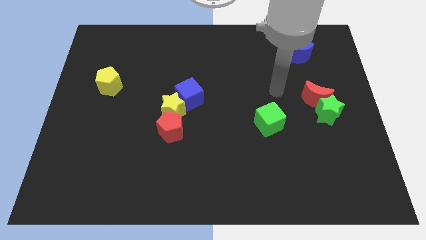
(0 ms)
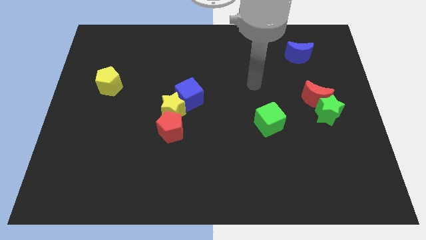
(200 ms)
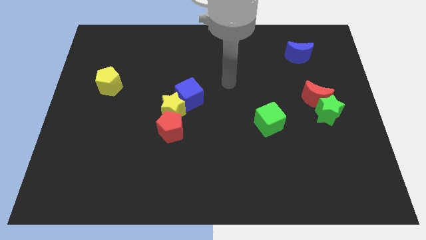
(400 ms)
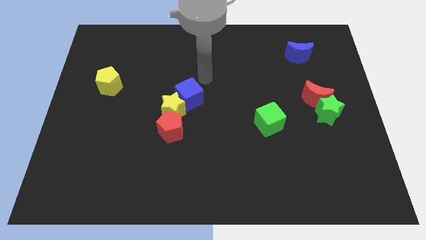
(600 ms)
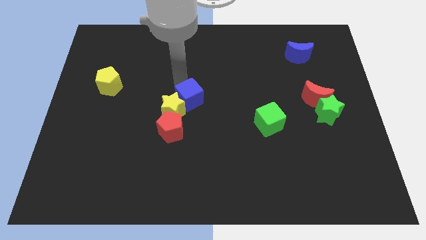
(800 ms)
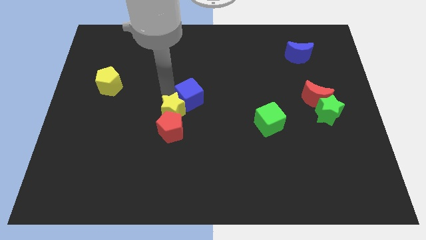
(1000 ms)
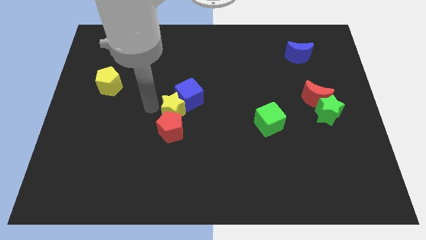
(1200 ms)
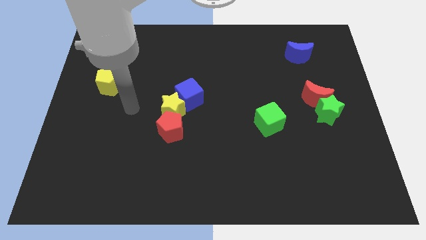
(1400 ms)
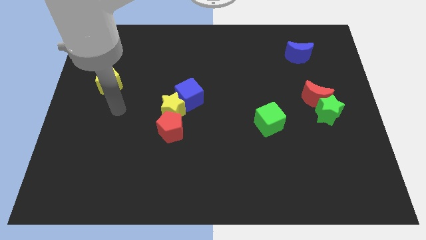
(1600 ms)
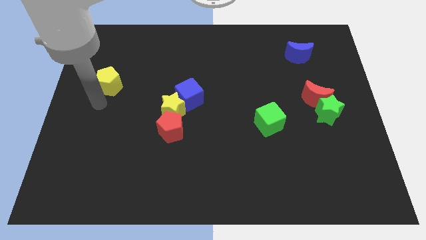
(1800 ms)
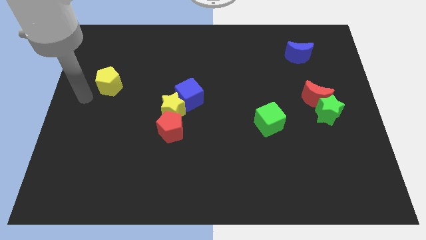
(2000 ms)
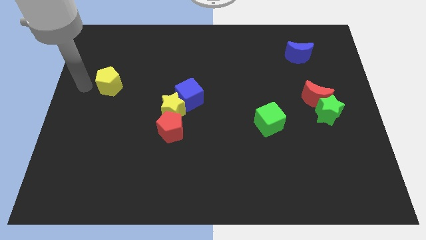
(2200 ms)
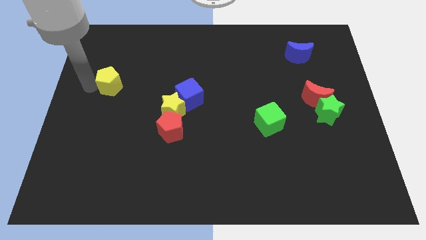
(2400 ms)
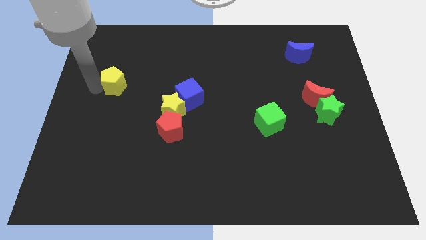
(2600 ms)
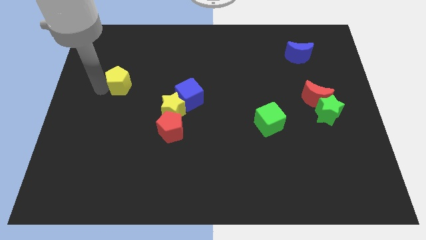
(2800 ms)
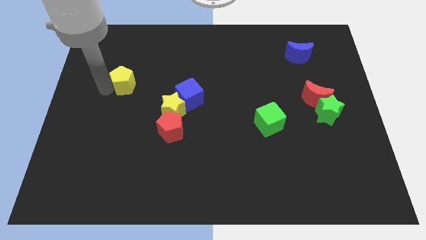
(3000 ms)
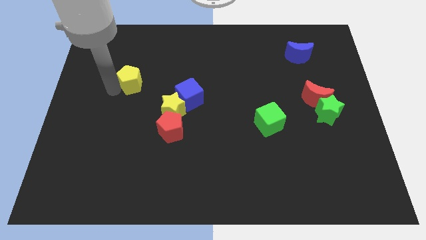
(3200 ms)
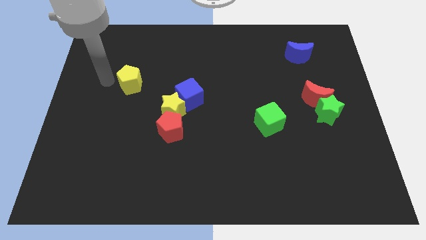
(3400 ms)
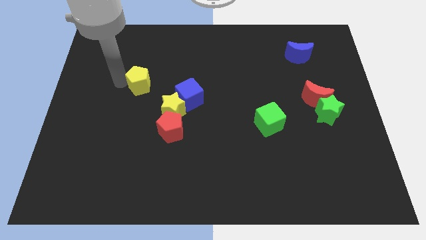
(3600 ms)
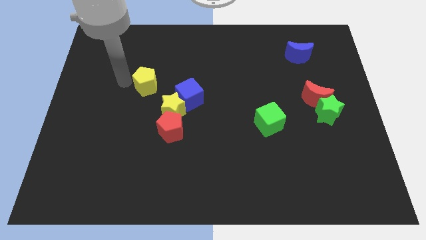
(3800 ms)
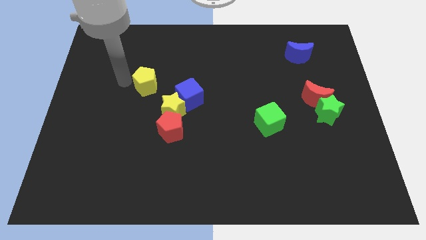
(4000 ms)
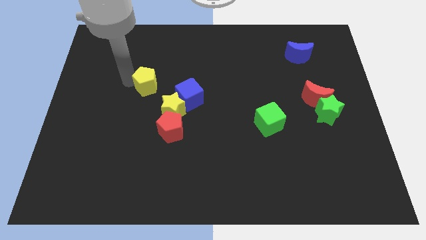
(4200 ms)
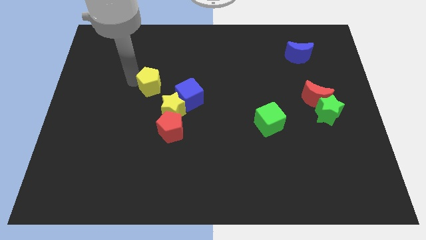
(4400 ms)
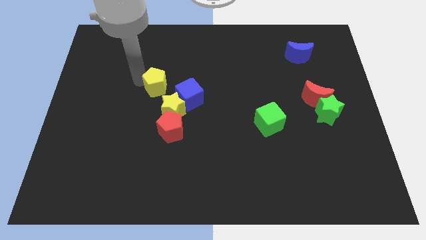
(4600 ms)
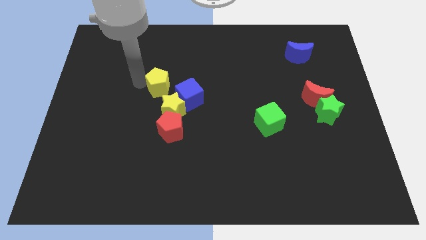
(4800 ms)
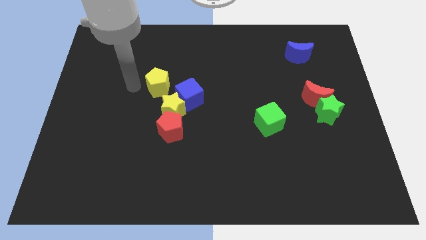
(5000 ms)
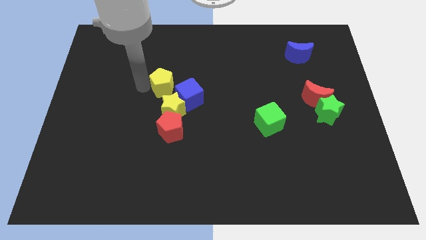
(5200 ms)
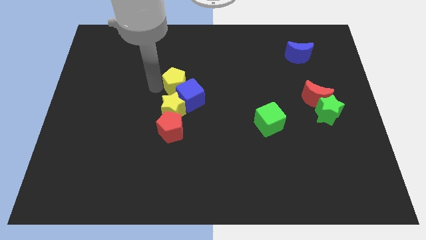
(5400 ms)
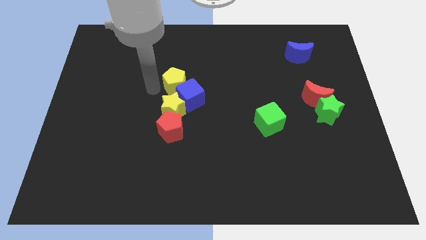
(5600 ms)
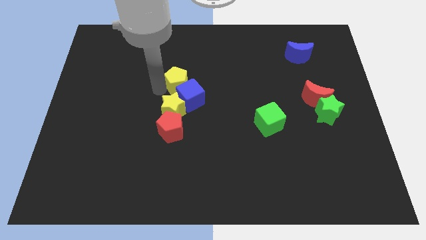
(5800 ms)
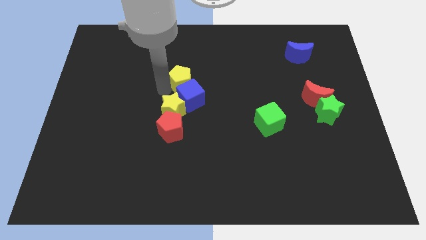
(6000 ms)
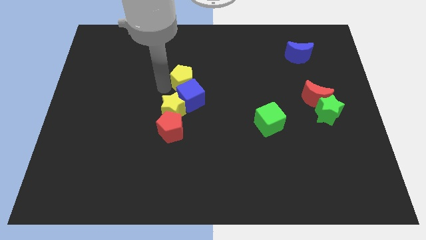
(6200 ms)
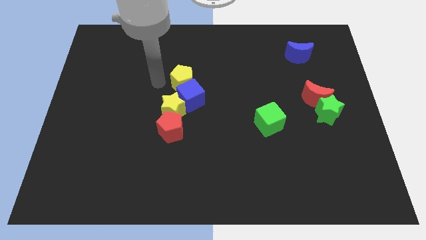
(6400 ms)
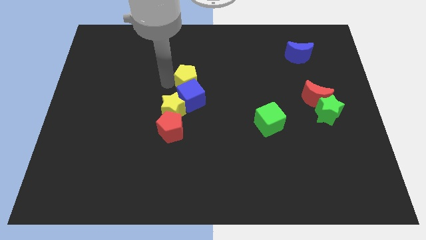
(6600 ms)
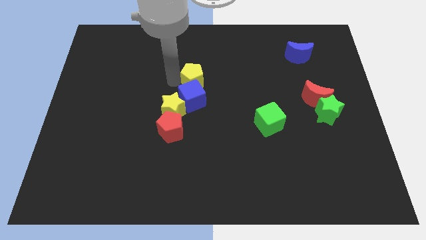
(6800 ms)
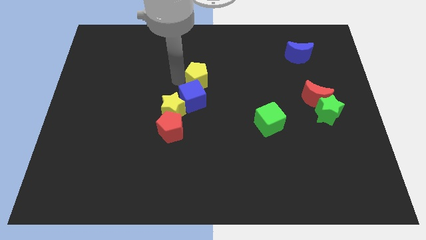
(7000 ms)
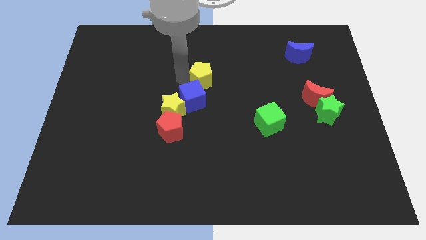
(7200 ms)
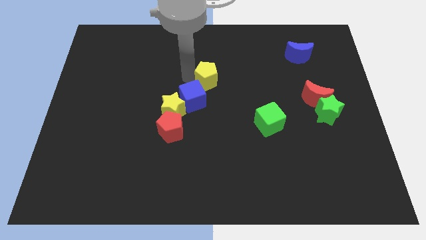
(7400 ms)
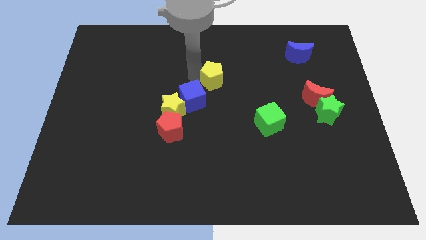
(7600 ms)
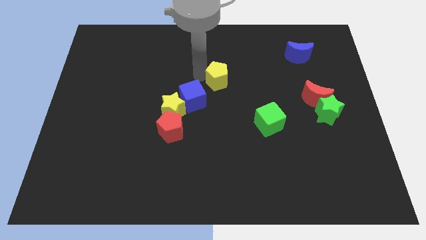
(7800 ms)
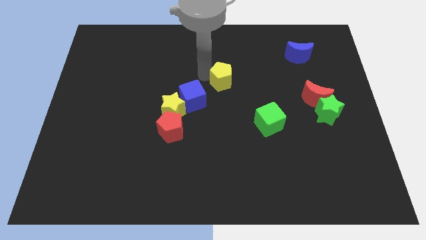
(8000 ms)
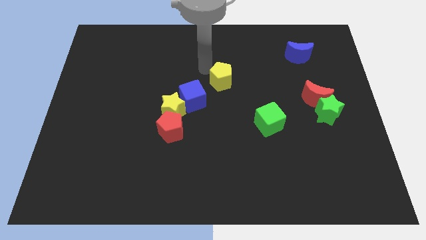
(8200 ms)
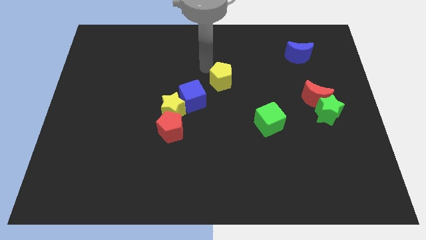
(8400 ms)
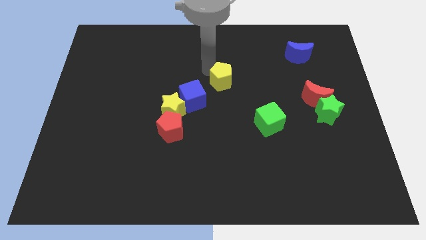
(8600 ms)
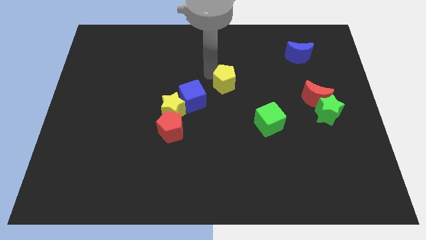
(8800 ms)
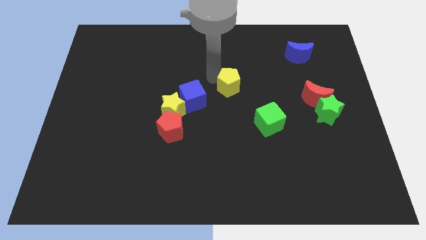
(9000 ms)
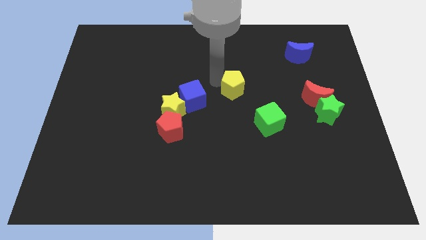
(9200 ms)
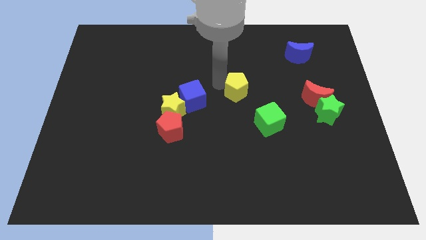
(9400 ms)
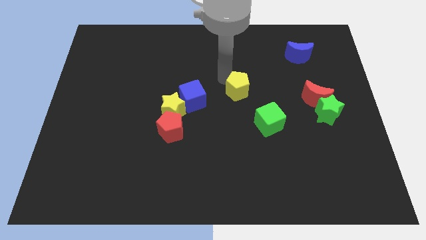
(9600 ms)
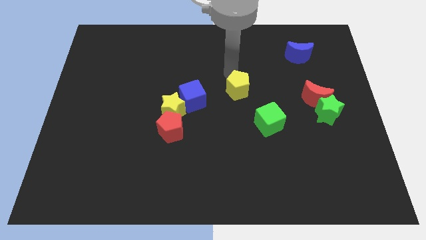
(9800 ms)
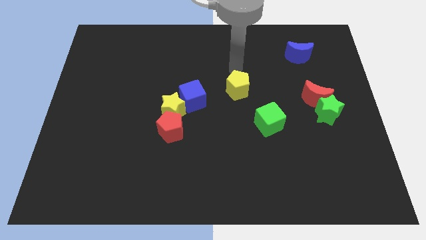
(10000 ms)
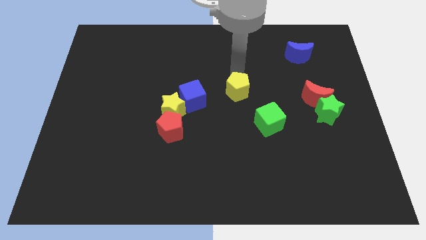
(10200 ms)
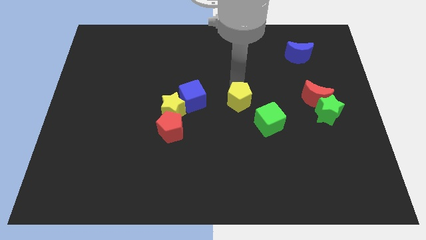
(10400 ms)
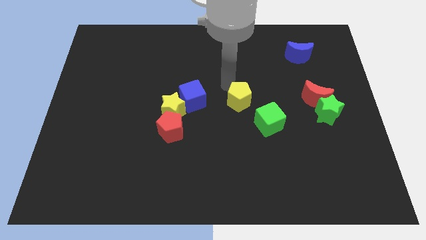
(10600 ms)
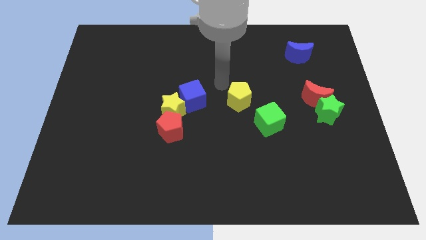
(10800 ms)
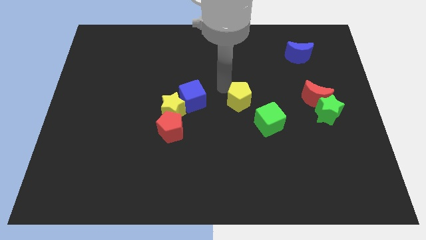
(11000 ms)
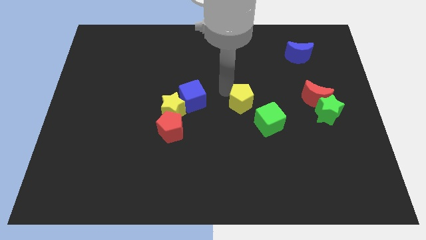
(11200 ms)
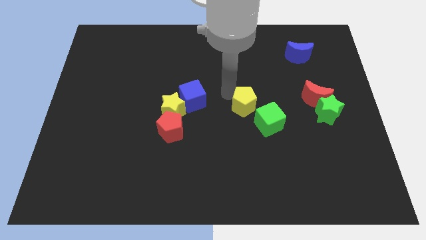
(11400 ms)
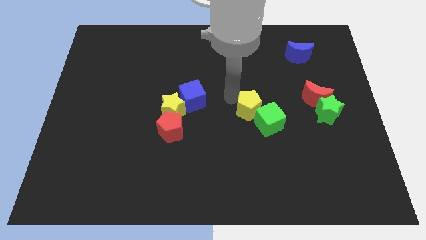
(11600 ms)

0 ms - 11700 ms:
push the yellow pentagon next to the green cube
